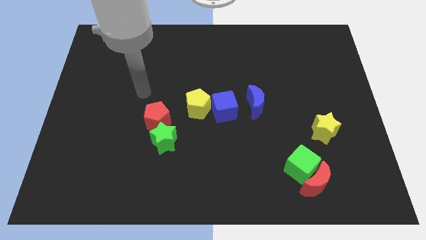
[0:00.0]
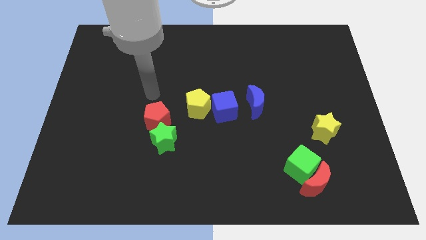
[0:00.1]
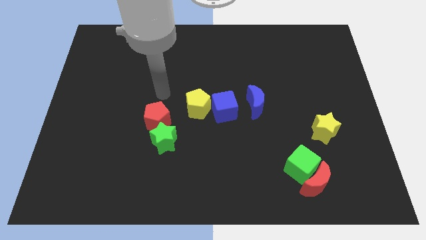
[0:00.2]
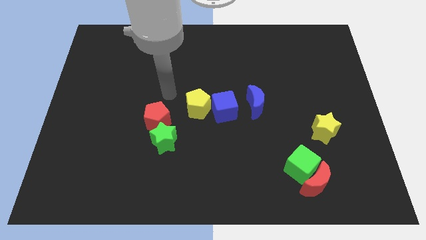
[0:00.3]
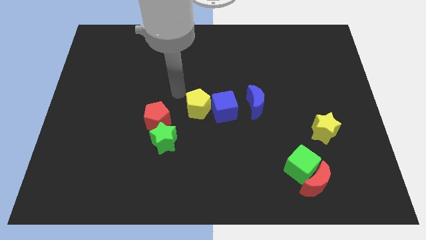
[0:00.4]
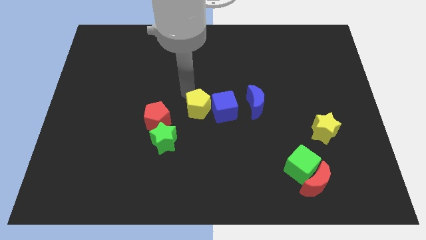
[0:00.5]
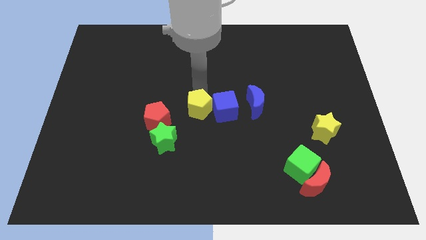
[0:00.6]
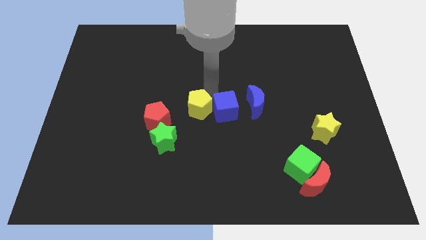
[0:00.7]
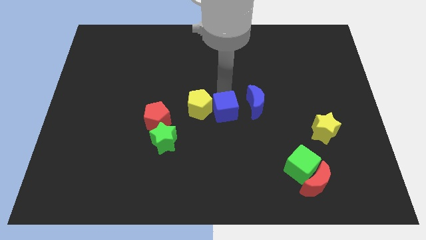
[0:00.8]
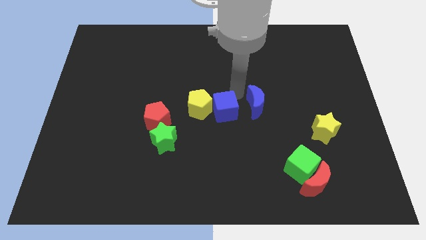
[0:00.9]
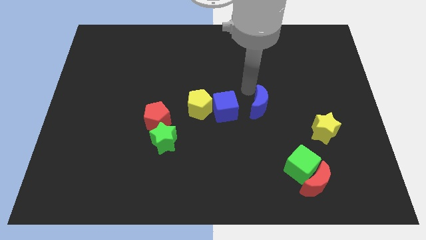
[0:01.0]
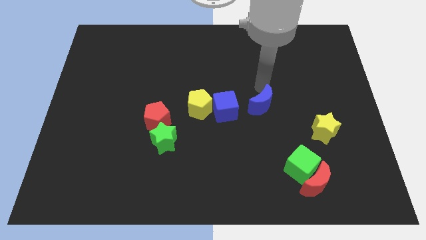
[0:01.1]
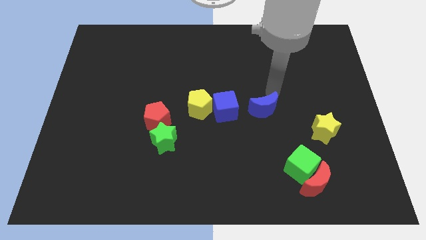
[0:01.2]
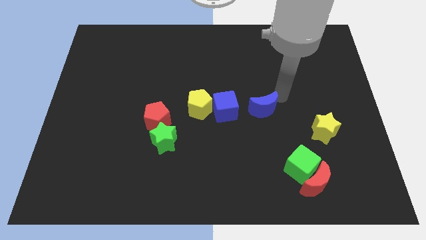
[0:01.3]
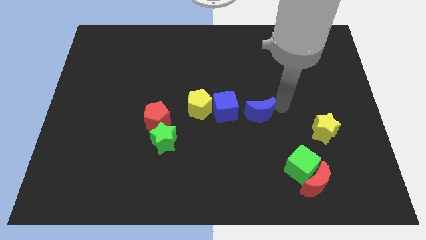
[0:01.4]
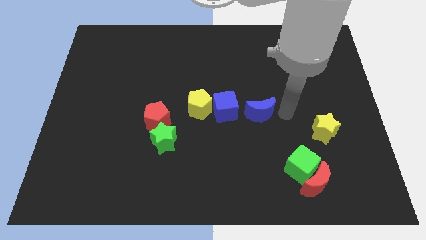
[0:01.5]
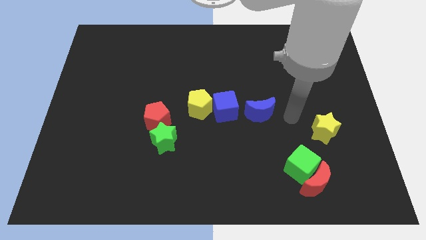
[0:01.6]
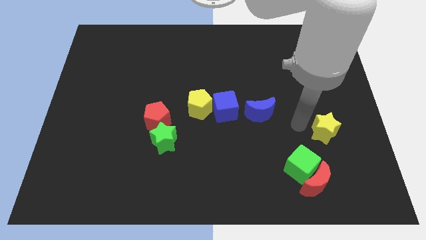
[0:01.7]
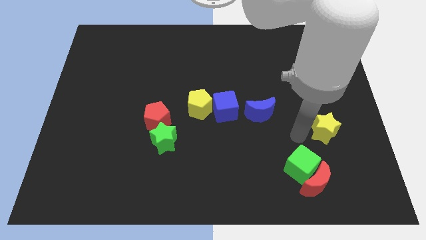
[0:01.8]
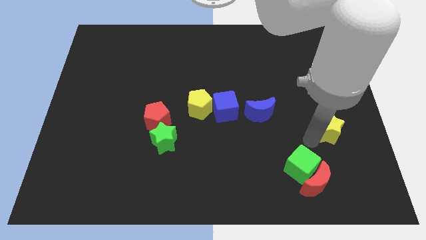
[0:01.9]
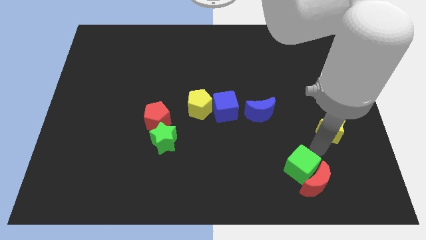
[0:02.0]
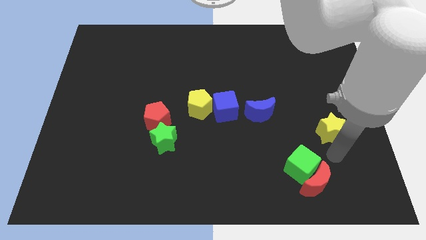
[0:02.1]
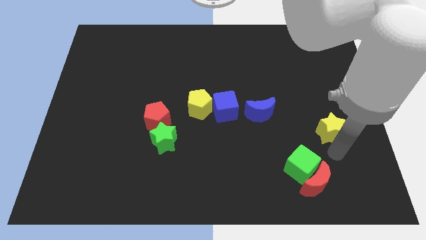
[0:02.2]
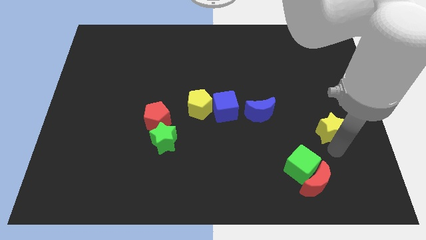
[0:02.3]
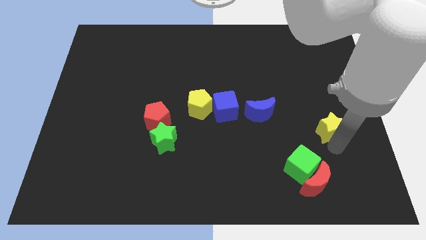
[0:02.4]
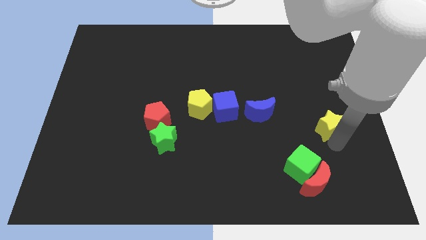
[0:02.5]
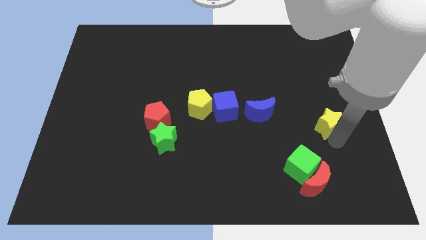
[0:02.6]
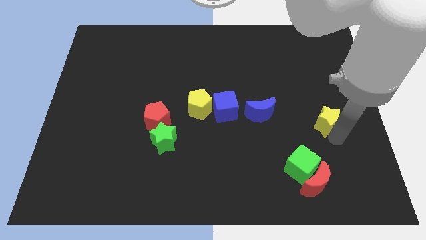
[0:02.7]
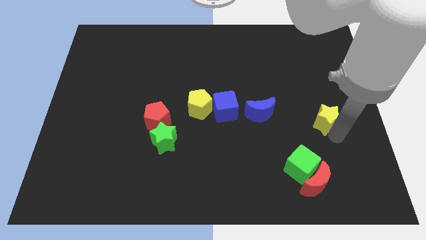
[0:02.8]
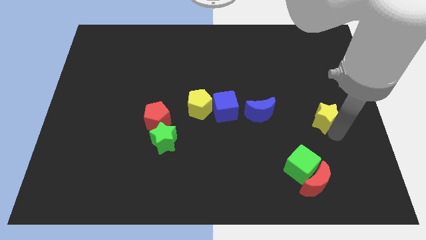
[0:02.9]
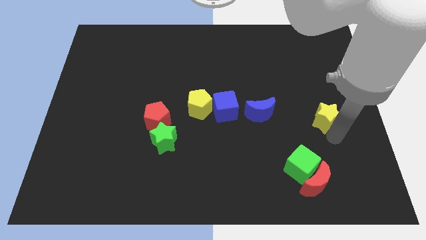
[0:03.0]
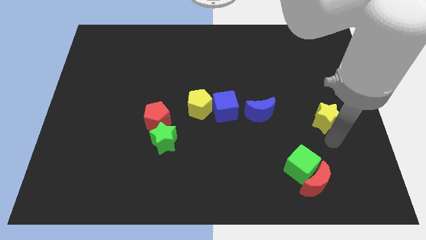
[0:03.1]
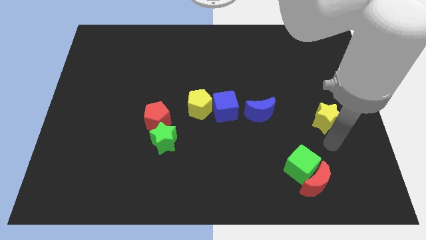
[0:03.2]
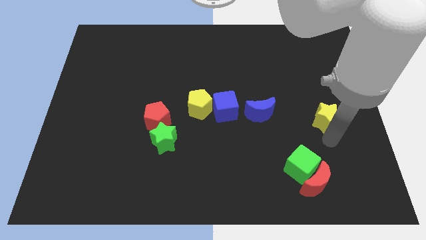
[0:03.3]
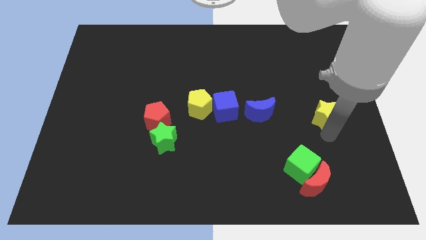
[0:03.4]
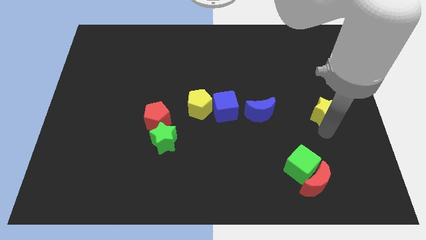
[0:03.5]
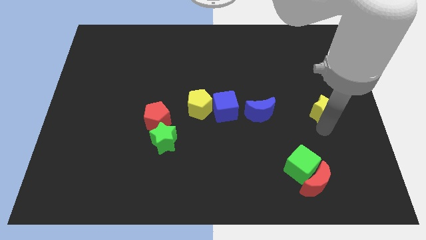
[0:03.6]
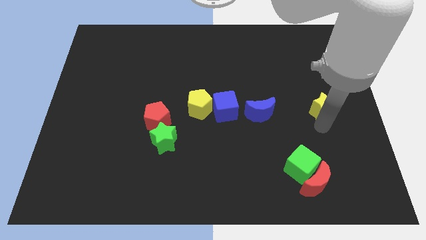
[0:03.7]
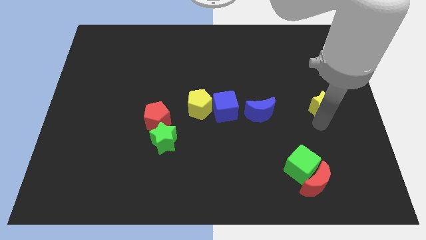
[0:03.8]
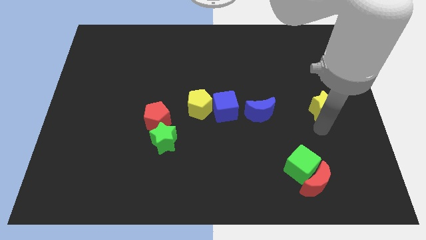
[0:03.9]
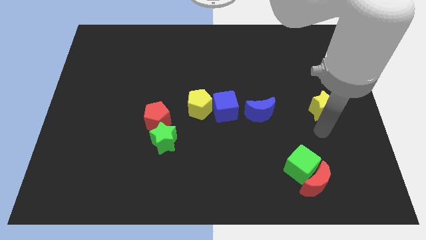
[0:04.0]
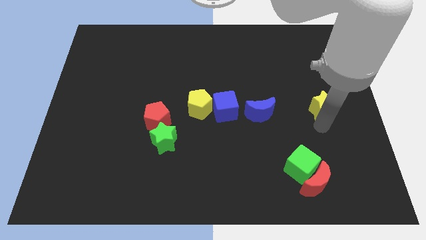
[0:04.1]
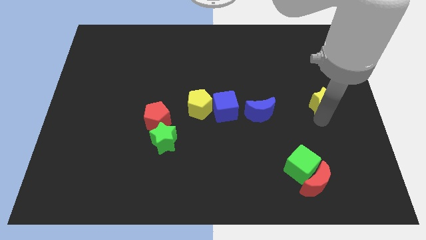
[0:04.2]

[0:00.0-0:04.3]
slide the yellow star upwards somewhat

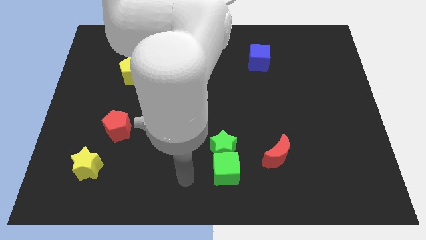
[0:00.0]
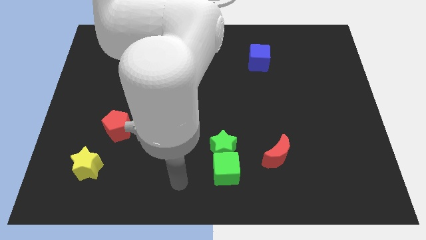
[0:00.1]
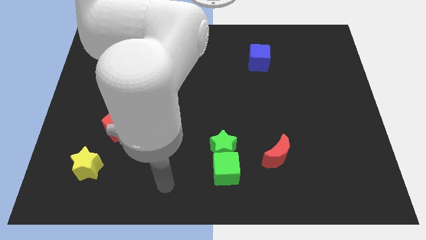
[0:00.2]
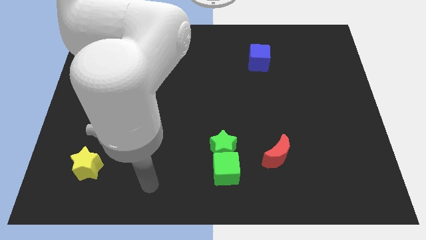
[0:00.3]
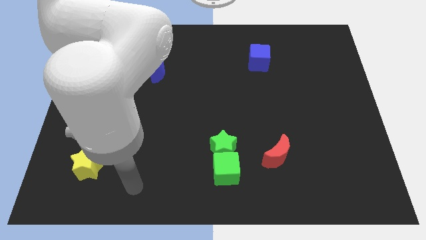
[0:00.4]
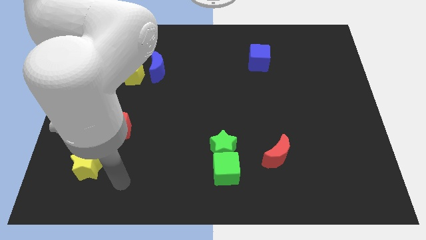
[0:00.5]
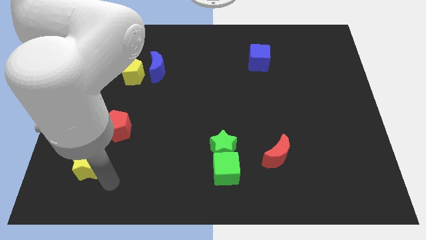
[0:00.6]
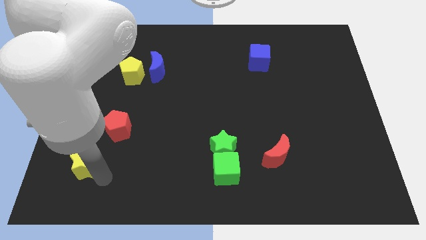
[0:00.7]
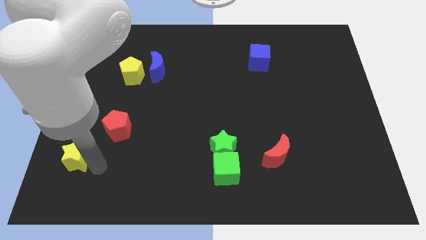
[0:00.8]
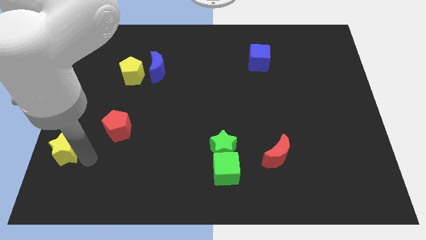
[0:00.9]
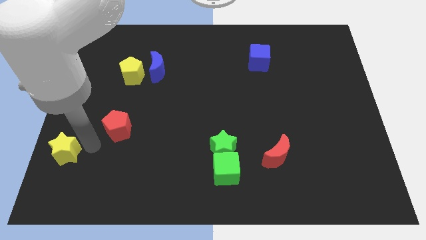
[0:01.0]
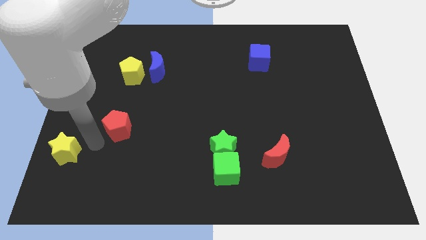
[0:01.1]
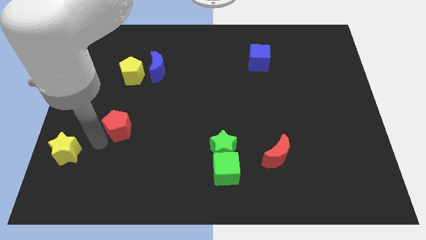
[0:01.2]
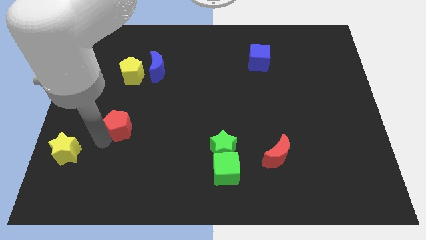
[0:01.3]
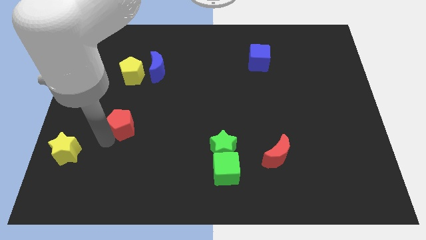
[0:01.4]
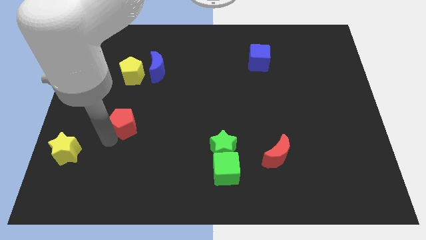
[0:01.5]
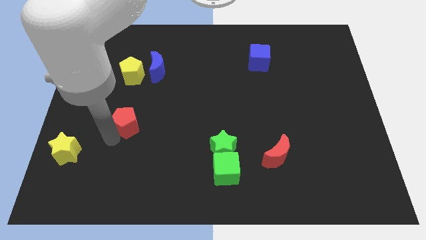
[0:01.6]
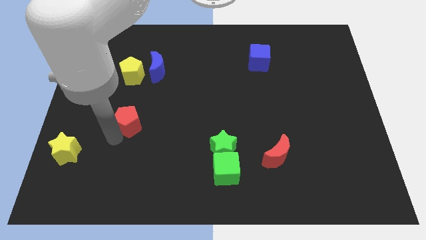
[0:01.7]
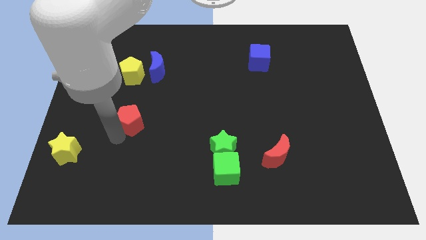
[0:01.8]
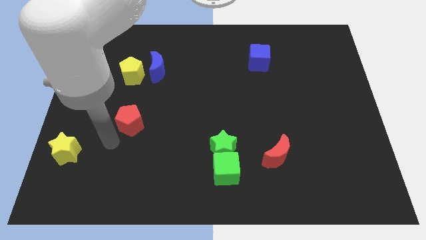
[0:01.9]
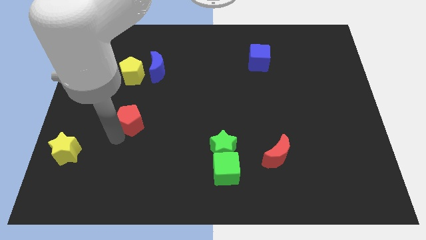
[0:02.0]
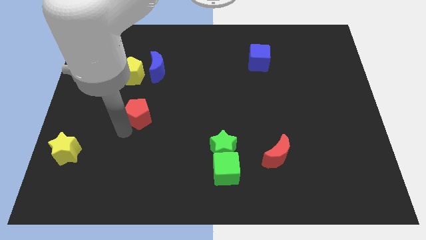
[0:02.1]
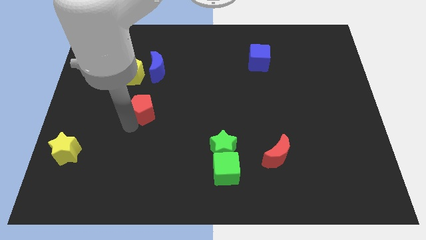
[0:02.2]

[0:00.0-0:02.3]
slightly push the red pentagon upwards and then to the right

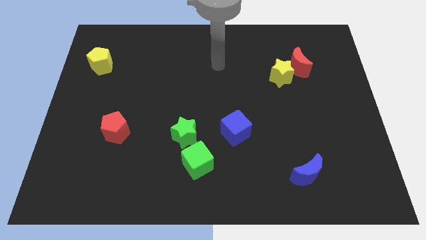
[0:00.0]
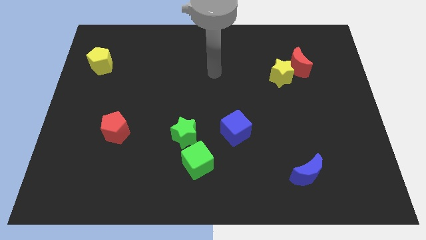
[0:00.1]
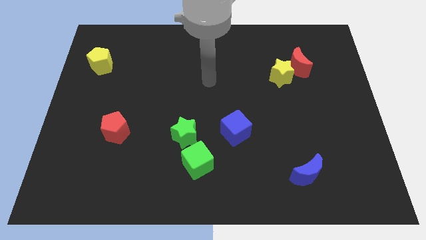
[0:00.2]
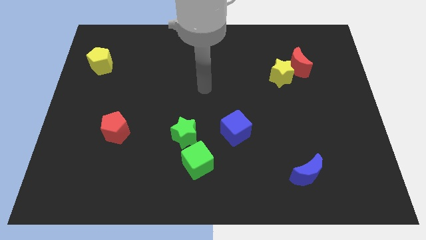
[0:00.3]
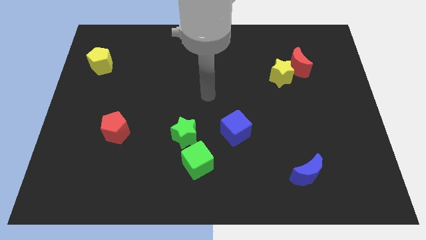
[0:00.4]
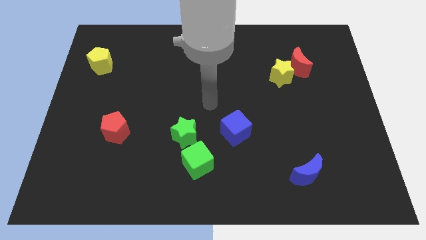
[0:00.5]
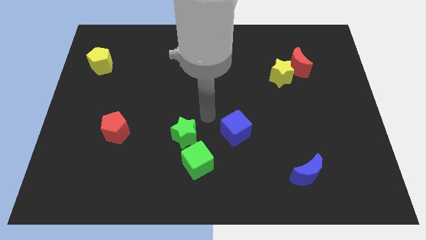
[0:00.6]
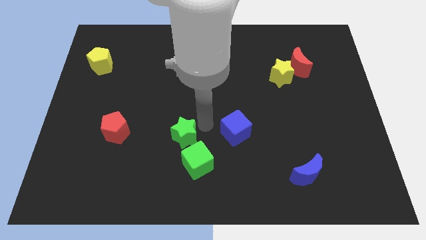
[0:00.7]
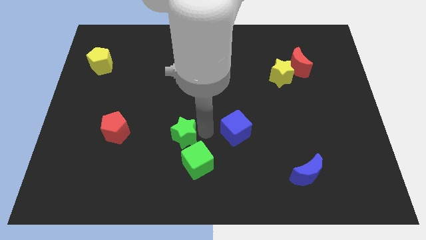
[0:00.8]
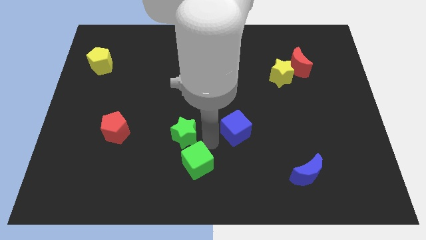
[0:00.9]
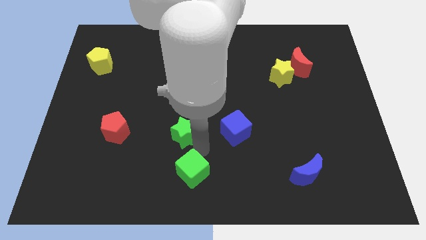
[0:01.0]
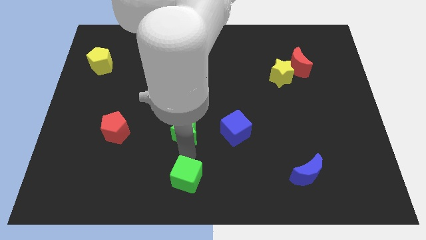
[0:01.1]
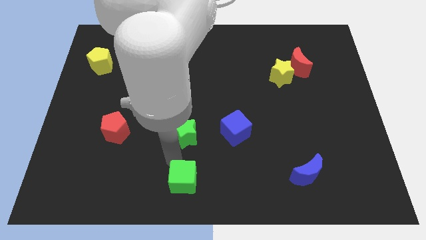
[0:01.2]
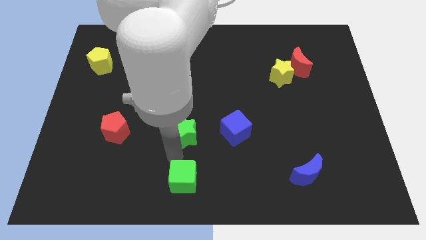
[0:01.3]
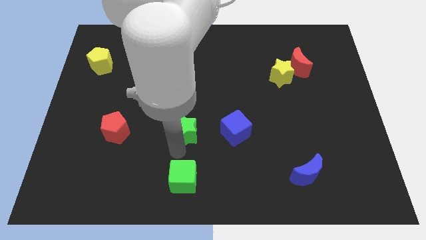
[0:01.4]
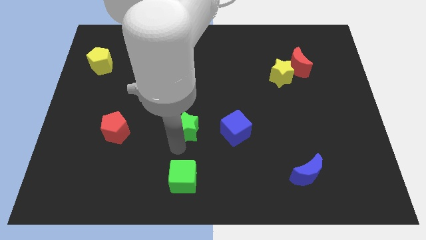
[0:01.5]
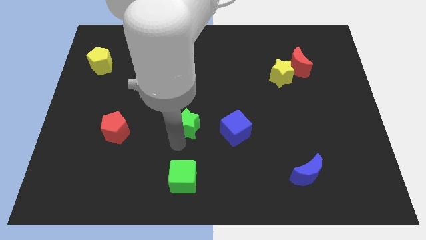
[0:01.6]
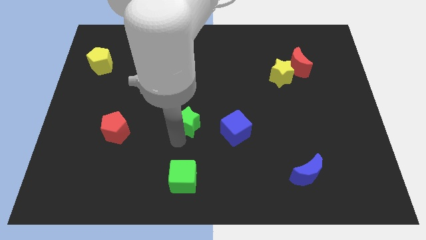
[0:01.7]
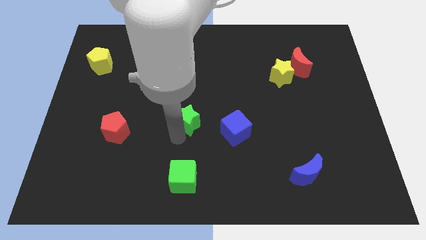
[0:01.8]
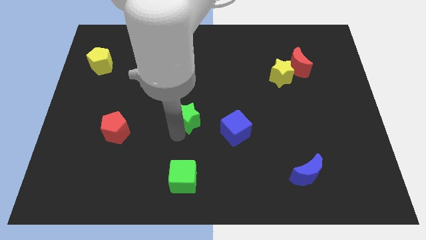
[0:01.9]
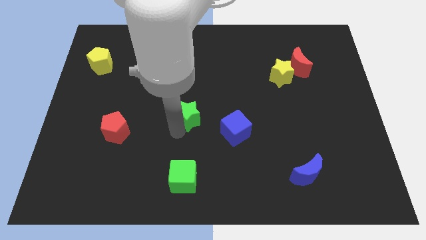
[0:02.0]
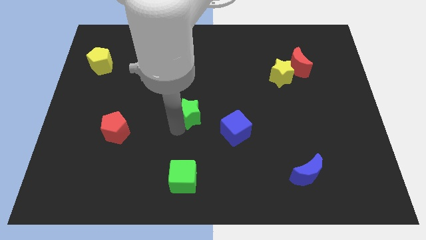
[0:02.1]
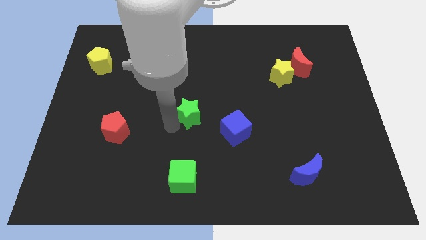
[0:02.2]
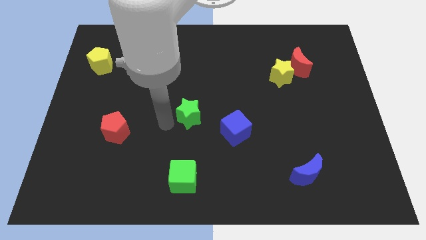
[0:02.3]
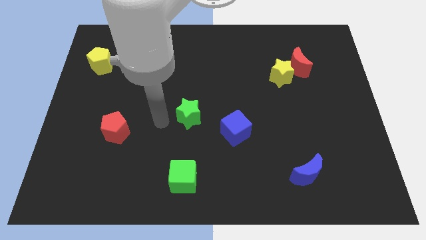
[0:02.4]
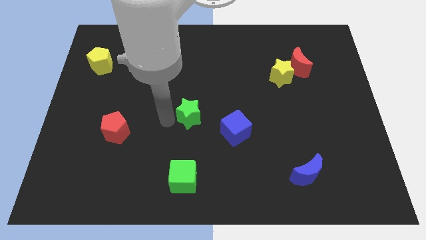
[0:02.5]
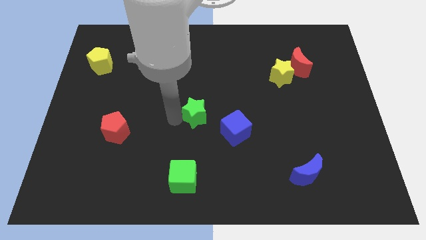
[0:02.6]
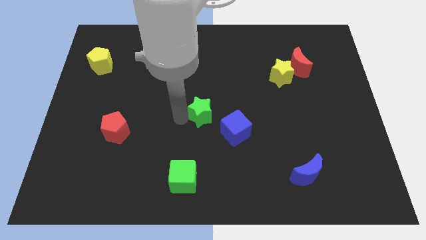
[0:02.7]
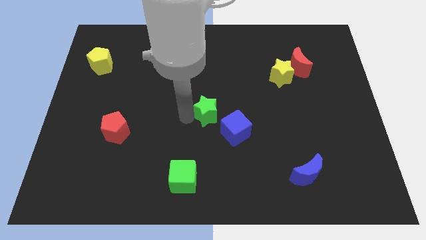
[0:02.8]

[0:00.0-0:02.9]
push the green star up and then to the right somewhat
